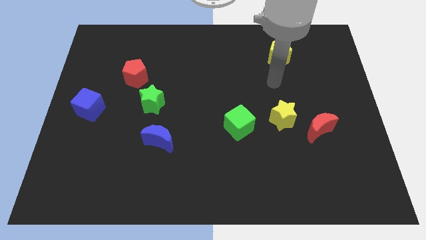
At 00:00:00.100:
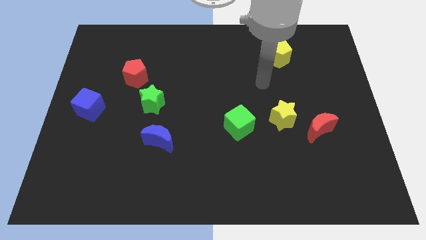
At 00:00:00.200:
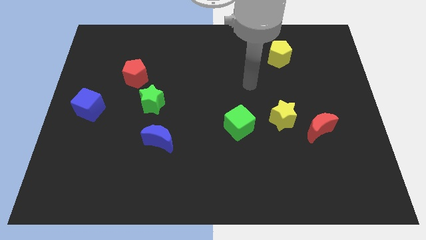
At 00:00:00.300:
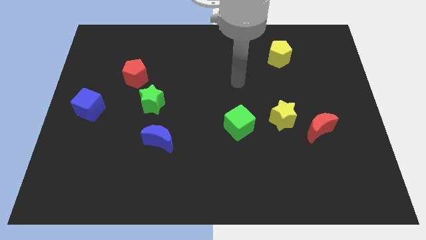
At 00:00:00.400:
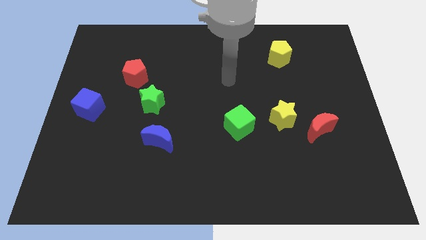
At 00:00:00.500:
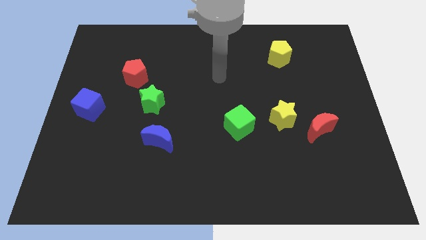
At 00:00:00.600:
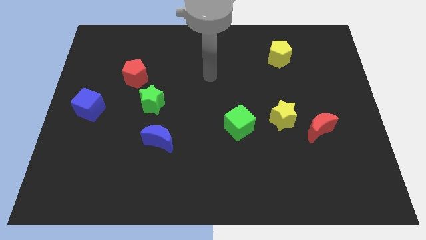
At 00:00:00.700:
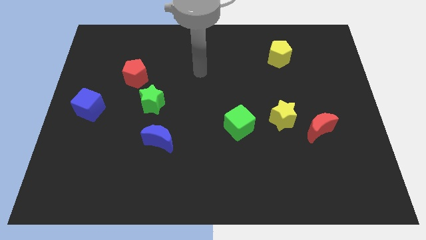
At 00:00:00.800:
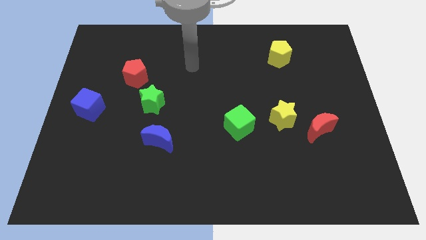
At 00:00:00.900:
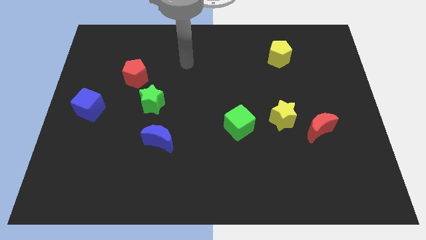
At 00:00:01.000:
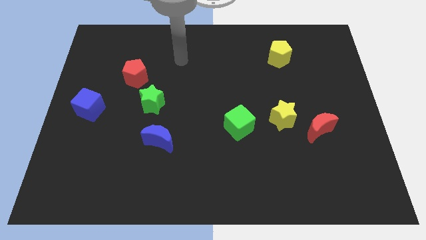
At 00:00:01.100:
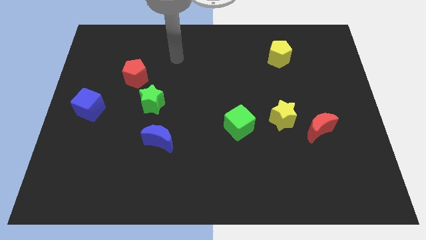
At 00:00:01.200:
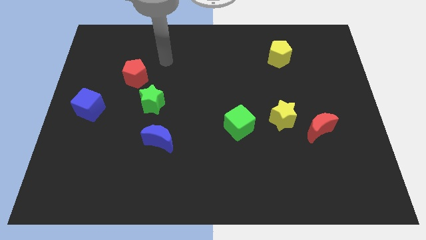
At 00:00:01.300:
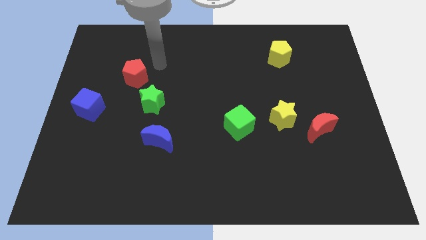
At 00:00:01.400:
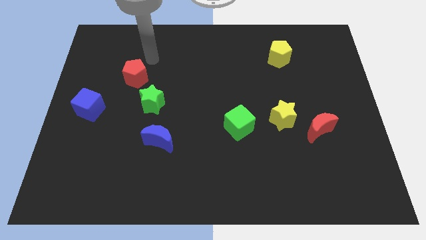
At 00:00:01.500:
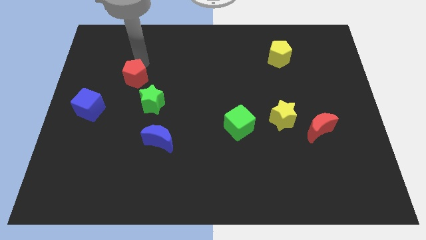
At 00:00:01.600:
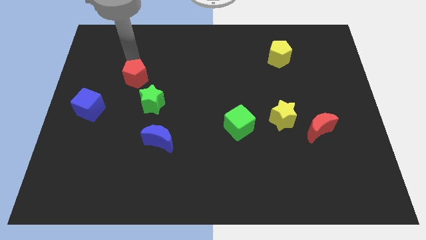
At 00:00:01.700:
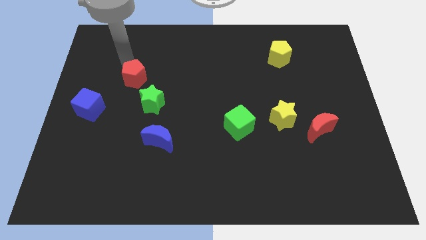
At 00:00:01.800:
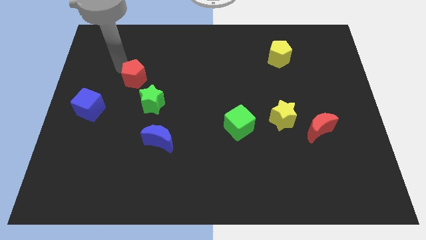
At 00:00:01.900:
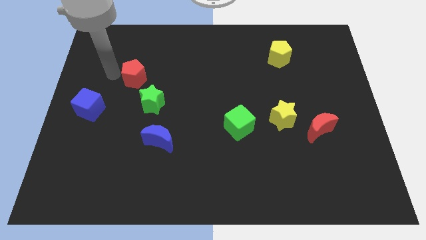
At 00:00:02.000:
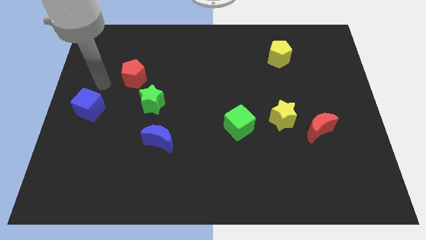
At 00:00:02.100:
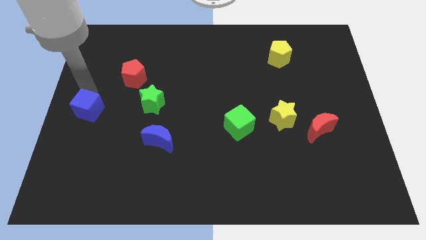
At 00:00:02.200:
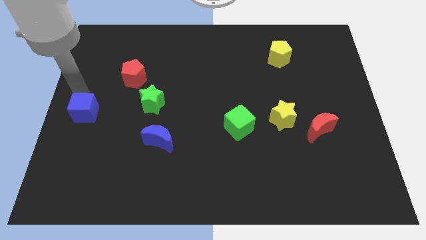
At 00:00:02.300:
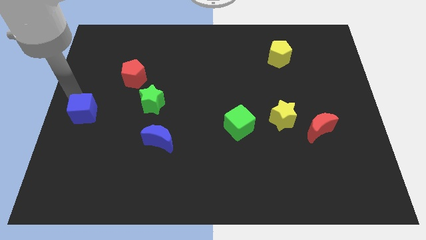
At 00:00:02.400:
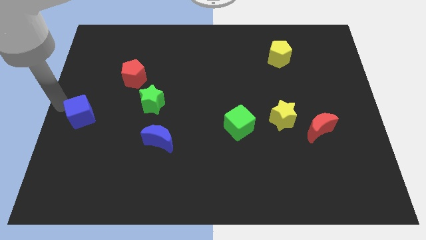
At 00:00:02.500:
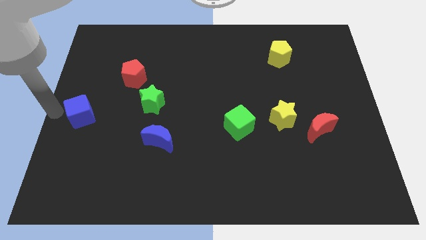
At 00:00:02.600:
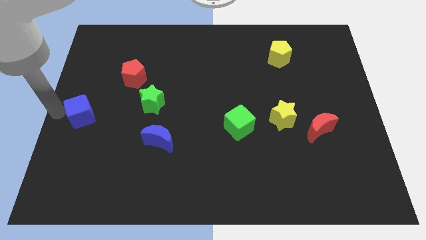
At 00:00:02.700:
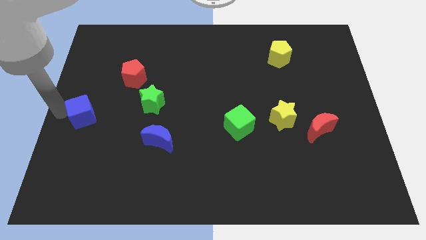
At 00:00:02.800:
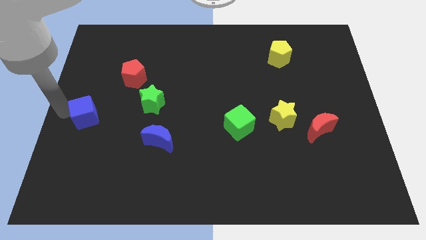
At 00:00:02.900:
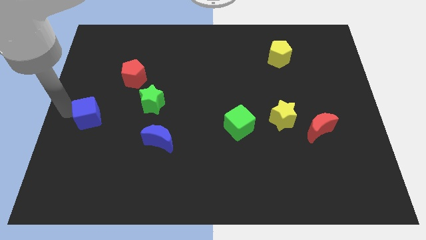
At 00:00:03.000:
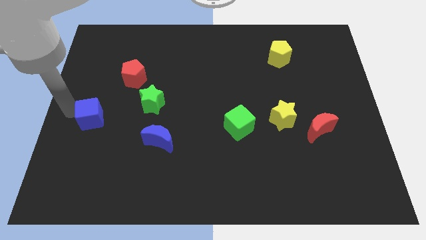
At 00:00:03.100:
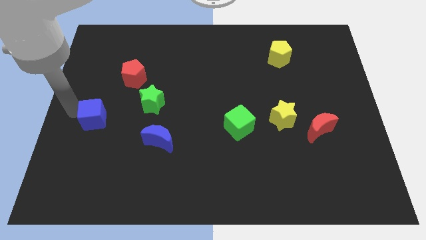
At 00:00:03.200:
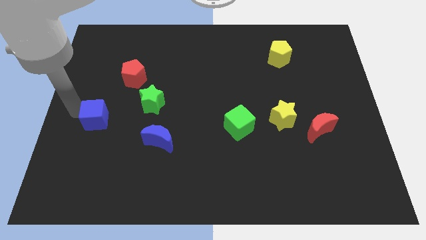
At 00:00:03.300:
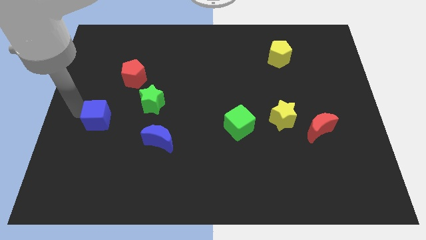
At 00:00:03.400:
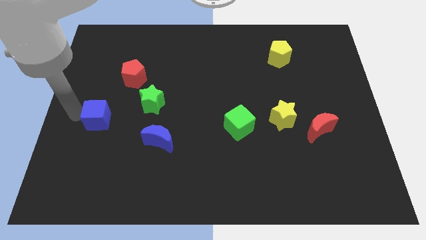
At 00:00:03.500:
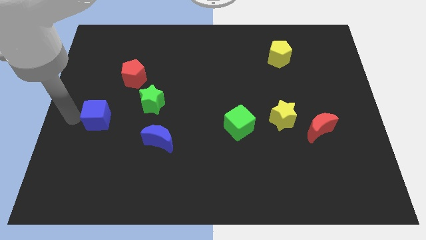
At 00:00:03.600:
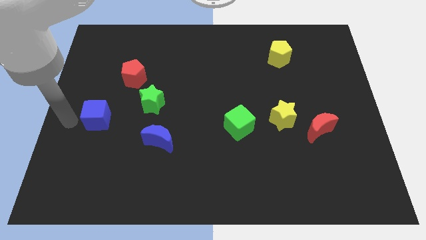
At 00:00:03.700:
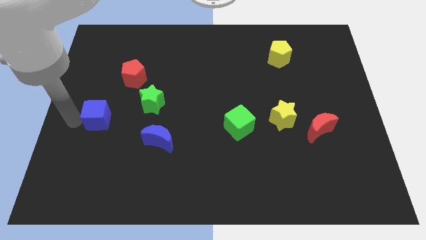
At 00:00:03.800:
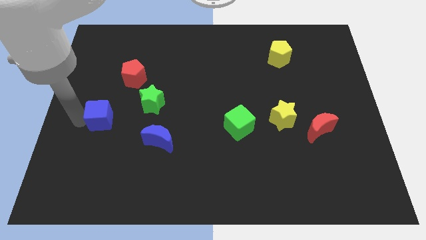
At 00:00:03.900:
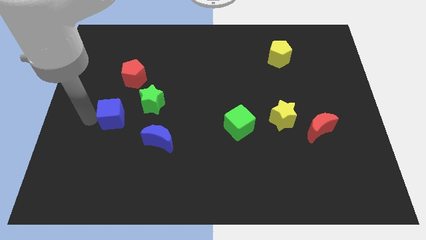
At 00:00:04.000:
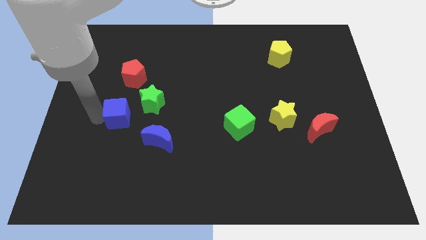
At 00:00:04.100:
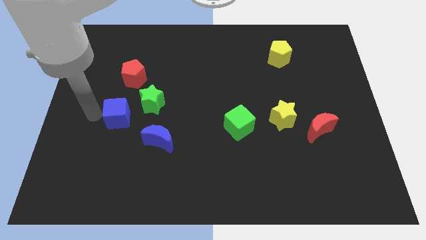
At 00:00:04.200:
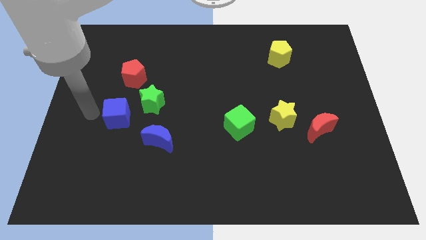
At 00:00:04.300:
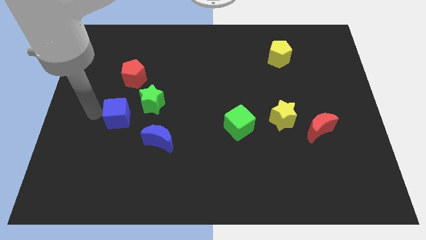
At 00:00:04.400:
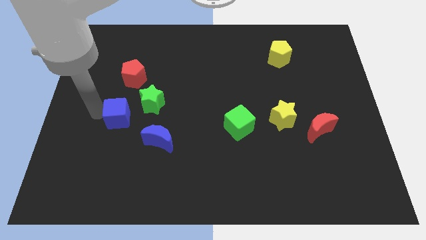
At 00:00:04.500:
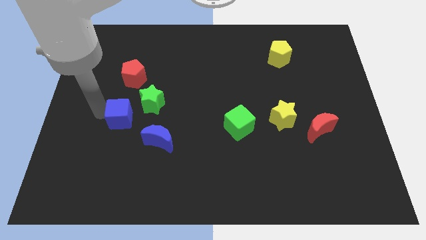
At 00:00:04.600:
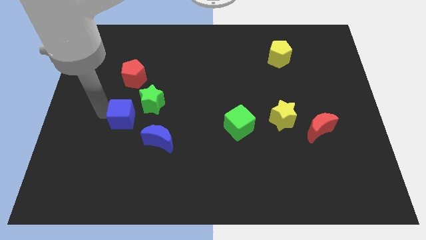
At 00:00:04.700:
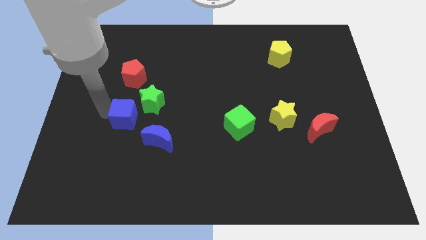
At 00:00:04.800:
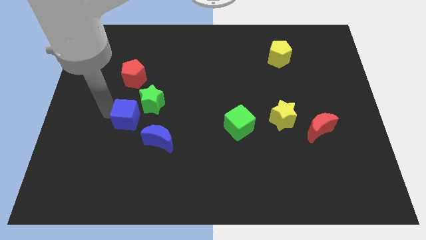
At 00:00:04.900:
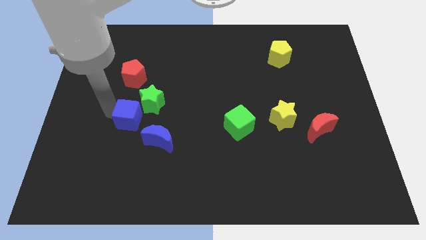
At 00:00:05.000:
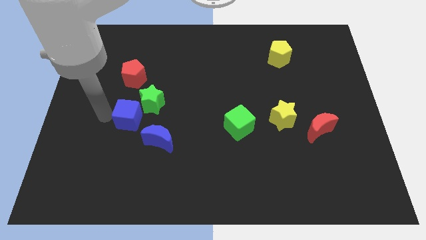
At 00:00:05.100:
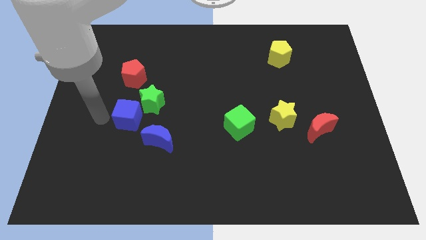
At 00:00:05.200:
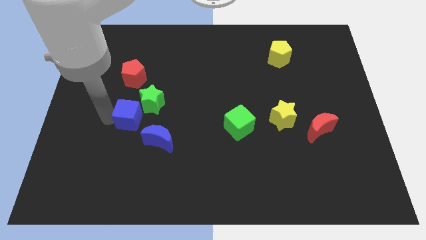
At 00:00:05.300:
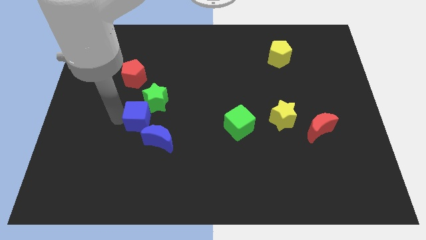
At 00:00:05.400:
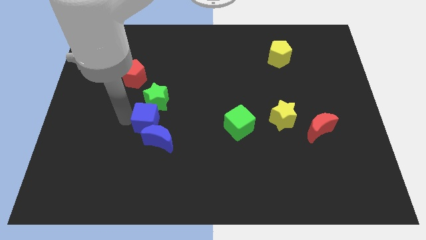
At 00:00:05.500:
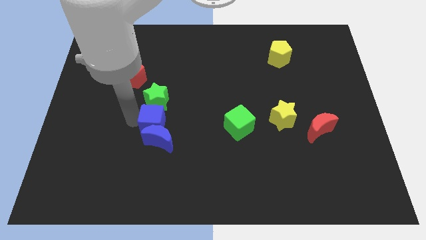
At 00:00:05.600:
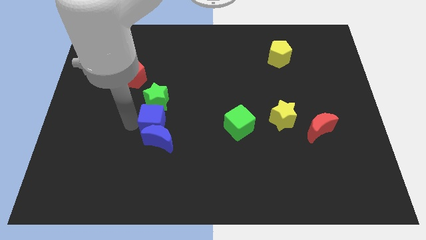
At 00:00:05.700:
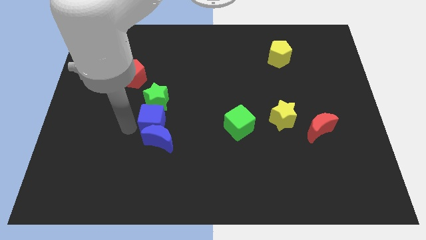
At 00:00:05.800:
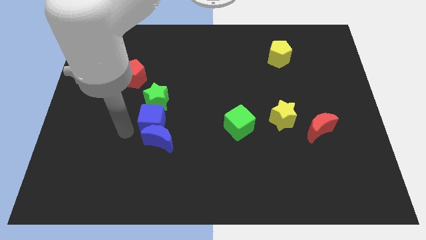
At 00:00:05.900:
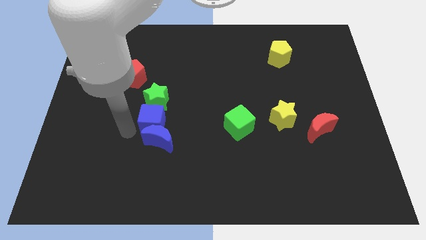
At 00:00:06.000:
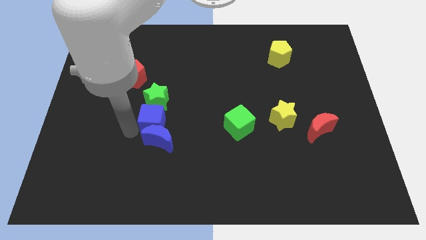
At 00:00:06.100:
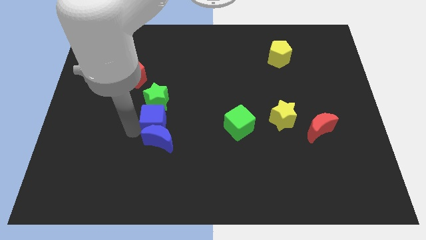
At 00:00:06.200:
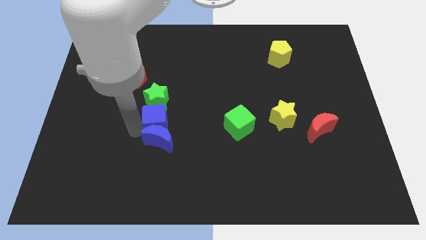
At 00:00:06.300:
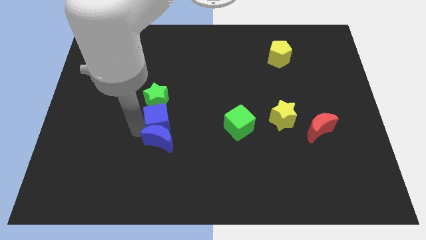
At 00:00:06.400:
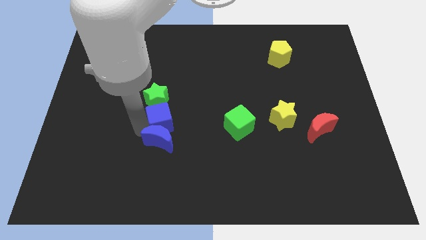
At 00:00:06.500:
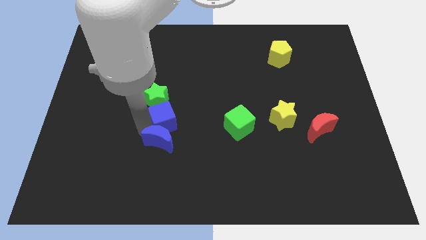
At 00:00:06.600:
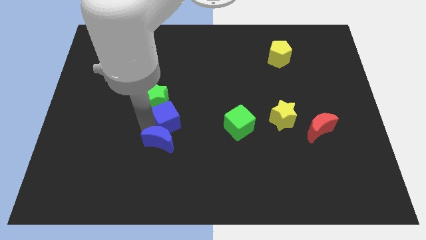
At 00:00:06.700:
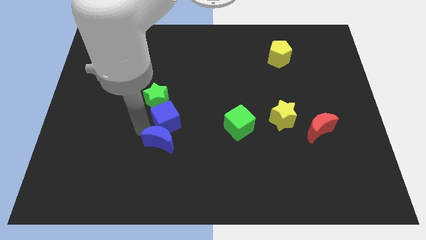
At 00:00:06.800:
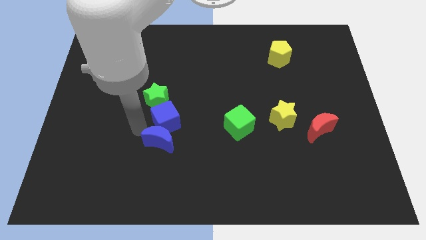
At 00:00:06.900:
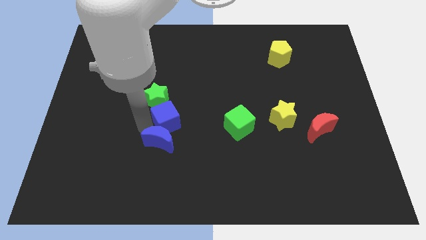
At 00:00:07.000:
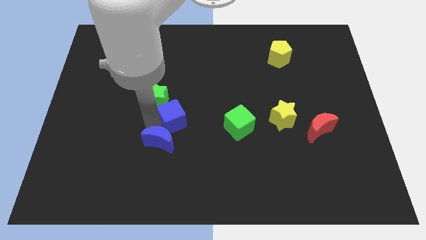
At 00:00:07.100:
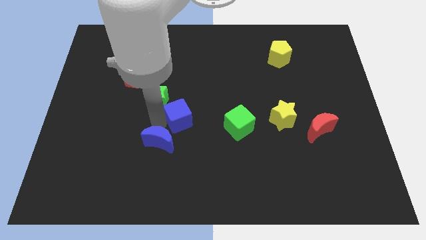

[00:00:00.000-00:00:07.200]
slide the blue cube to the right
